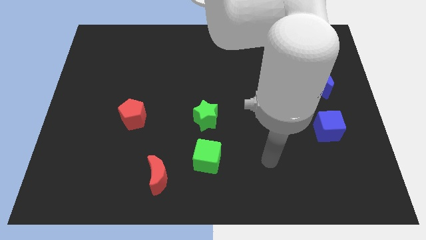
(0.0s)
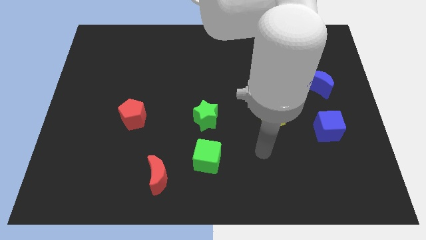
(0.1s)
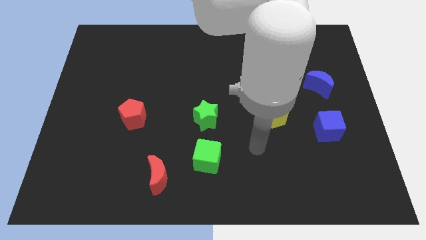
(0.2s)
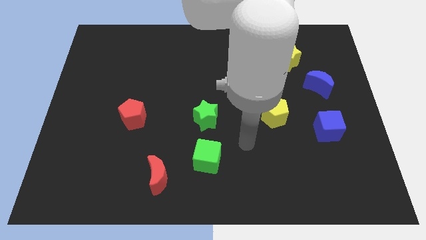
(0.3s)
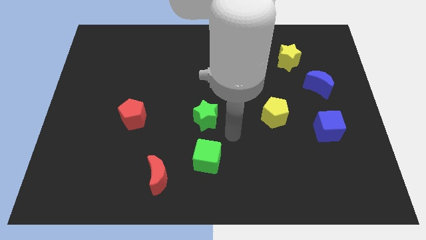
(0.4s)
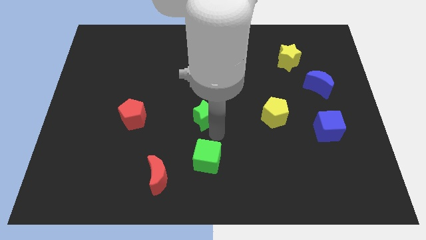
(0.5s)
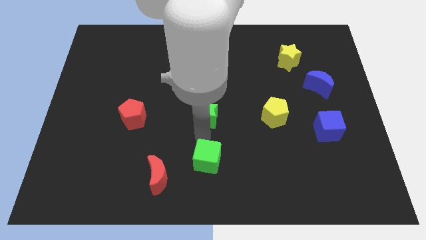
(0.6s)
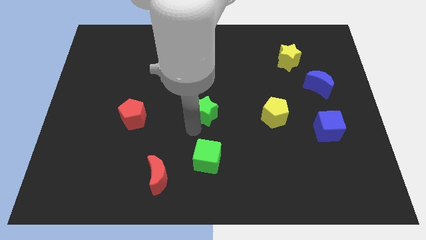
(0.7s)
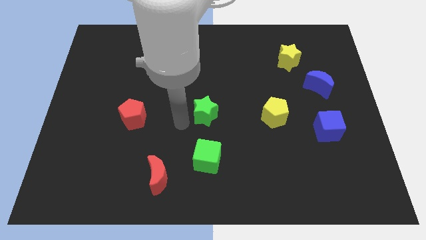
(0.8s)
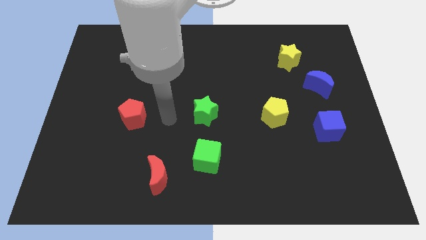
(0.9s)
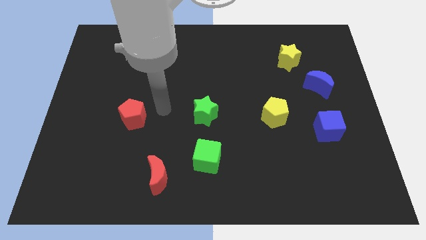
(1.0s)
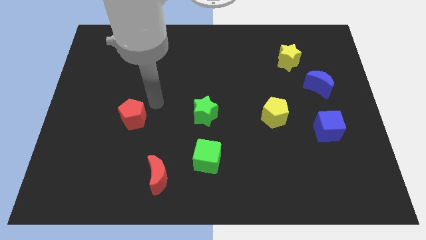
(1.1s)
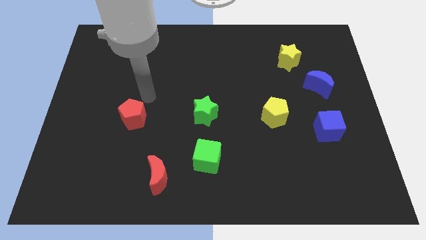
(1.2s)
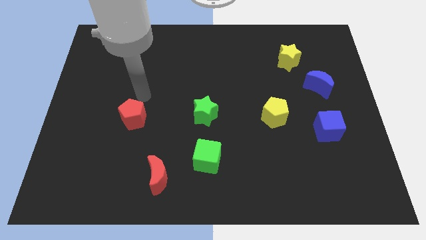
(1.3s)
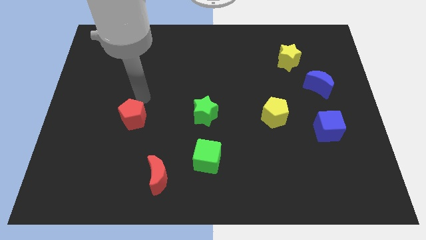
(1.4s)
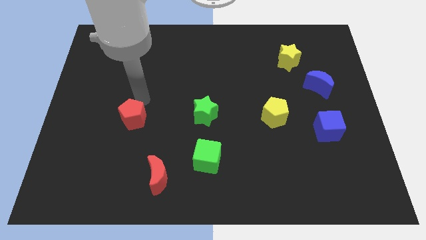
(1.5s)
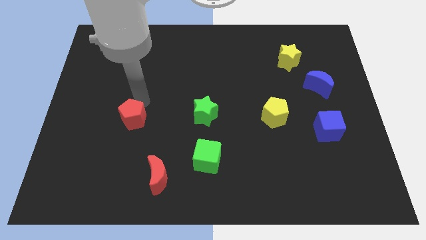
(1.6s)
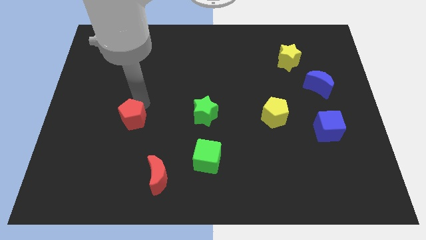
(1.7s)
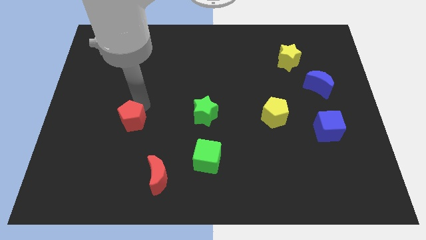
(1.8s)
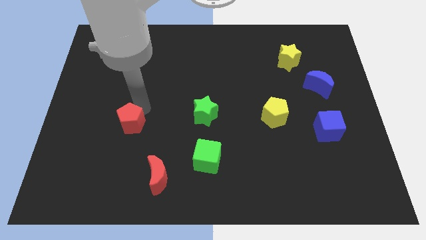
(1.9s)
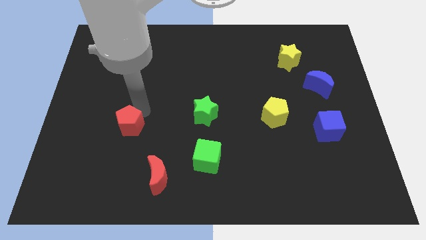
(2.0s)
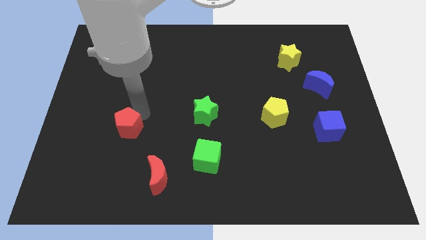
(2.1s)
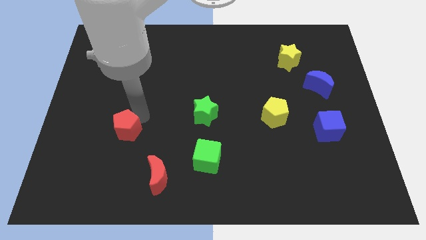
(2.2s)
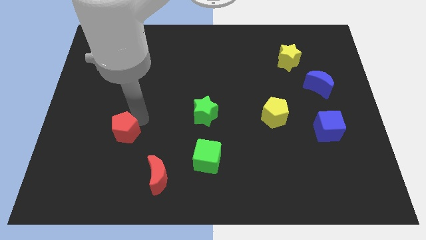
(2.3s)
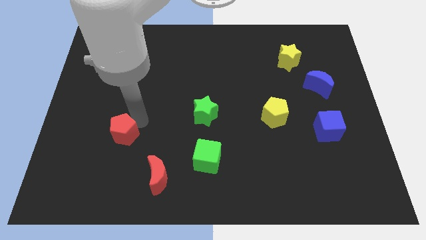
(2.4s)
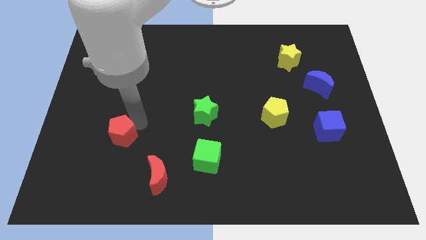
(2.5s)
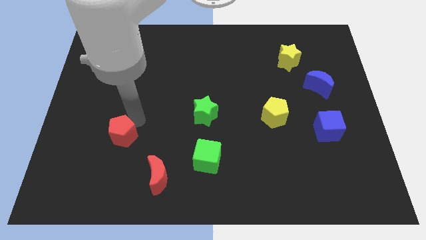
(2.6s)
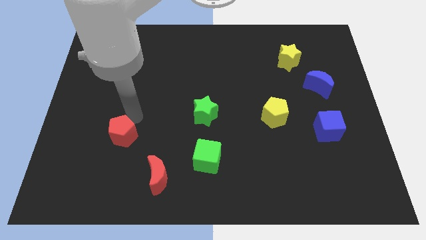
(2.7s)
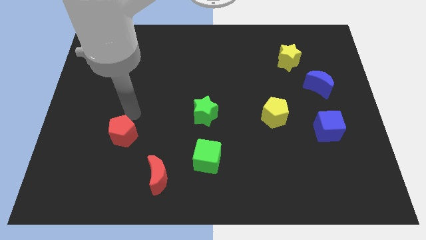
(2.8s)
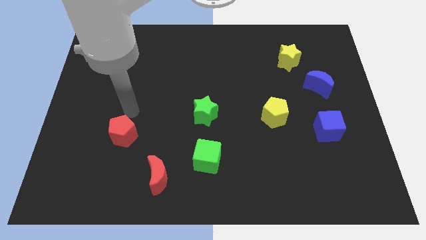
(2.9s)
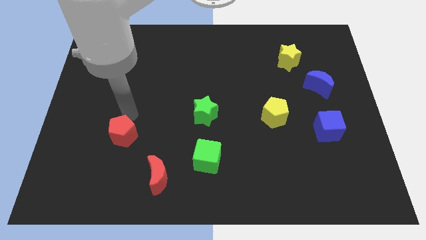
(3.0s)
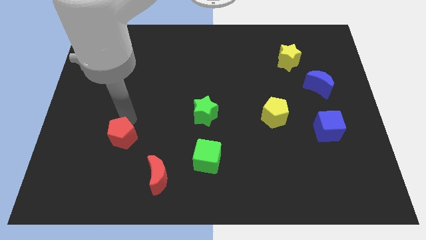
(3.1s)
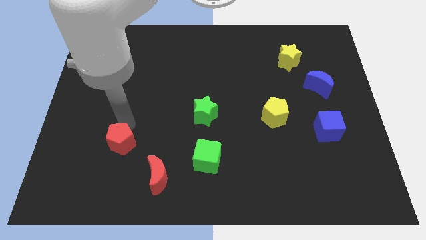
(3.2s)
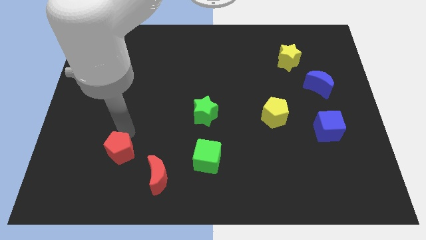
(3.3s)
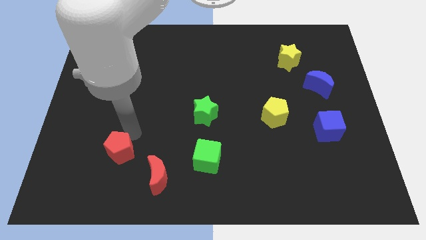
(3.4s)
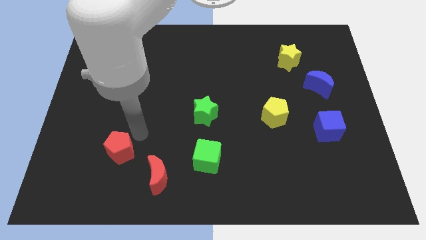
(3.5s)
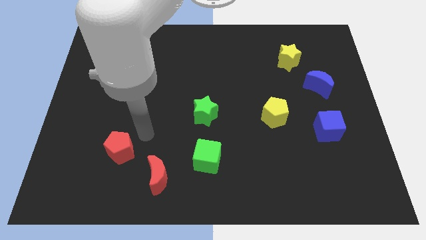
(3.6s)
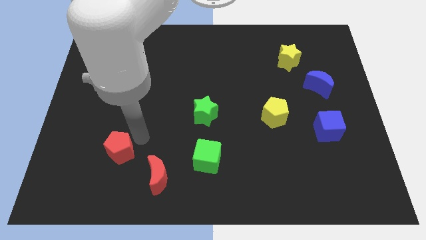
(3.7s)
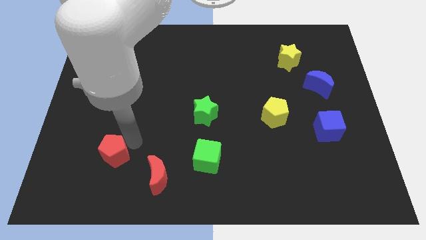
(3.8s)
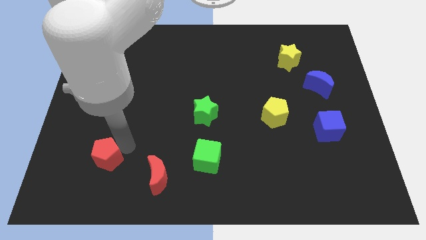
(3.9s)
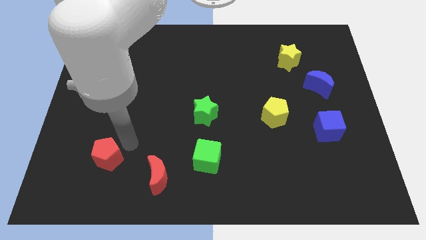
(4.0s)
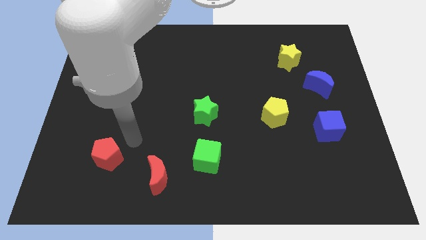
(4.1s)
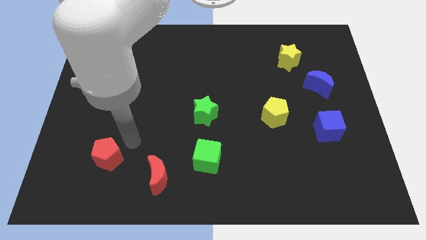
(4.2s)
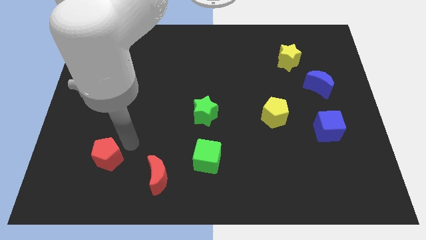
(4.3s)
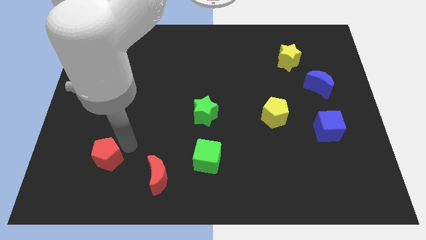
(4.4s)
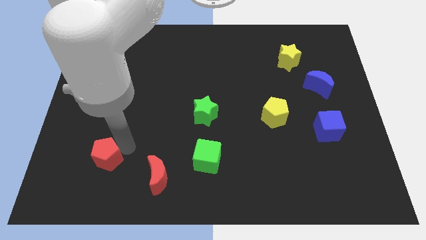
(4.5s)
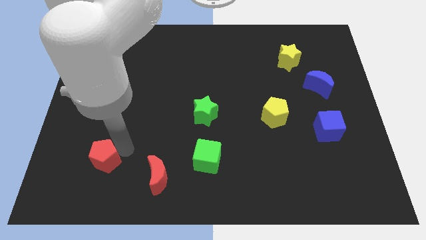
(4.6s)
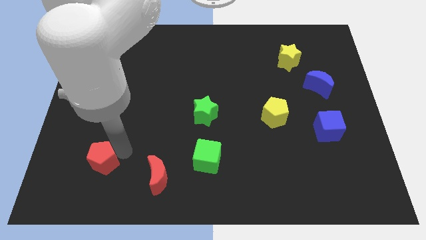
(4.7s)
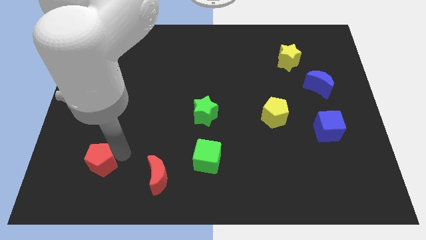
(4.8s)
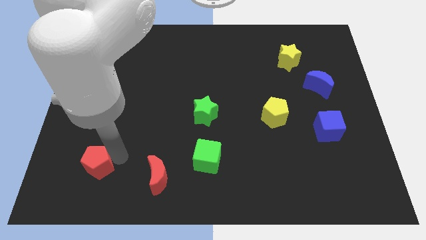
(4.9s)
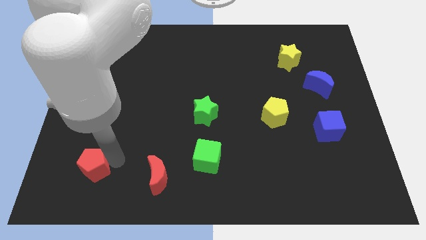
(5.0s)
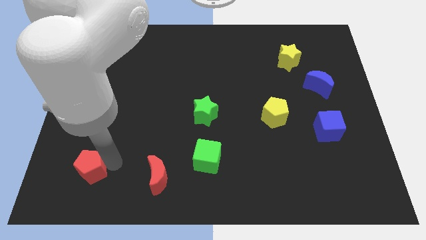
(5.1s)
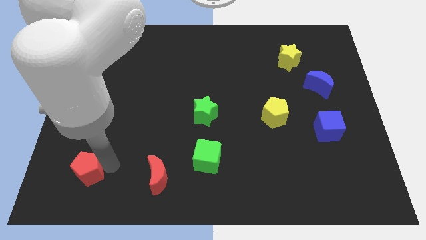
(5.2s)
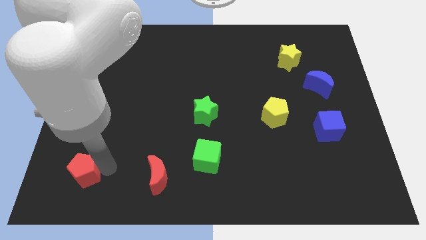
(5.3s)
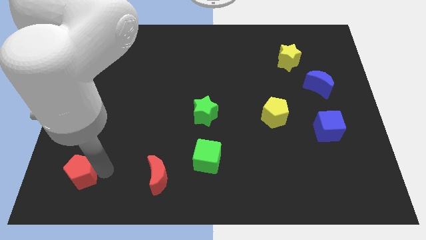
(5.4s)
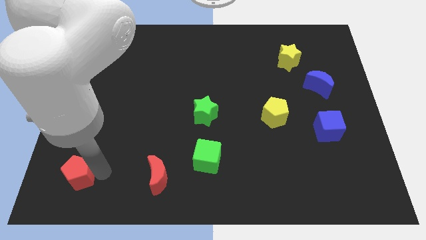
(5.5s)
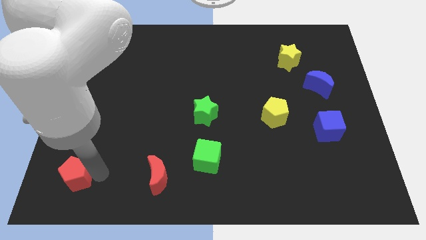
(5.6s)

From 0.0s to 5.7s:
push the red pentagon to the bottom left of the board

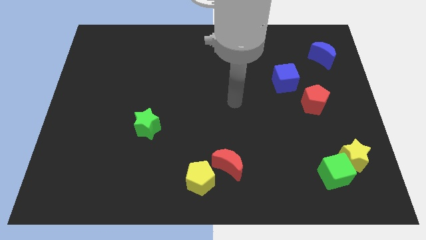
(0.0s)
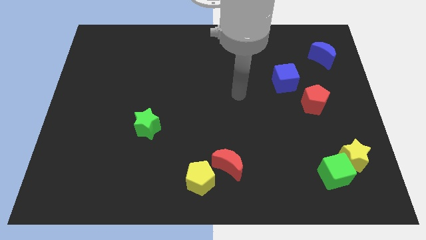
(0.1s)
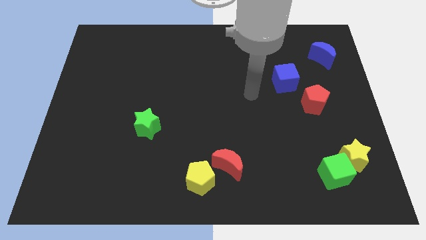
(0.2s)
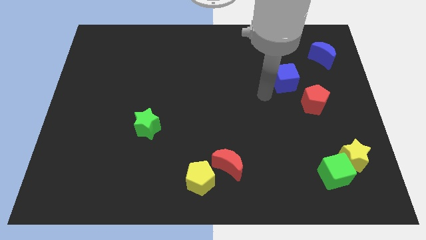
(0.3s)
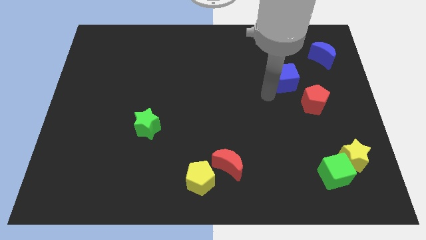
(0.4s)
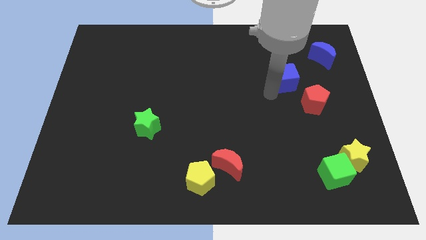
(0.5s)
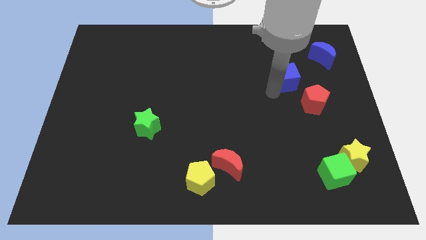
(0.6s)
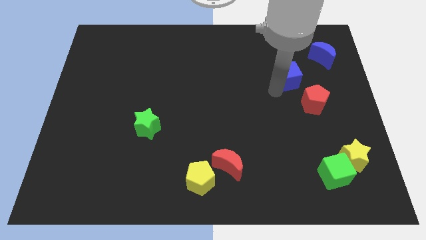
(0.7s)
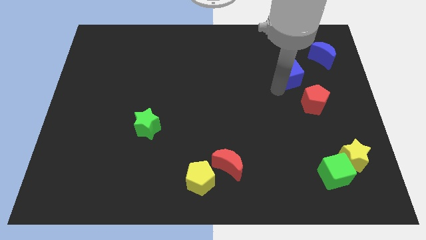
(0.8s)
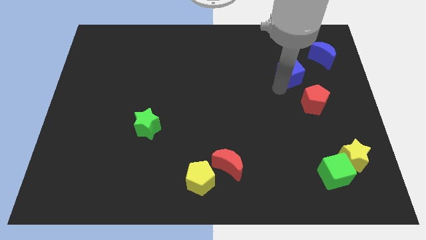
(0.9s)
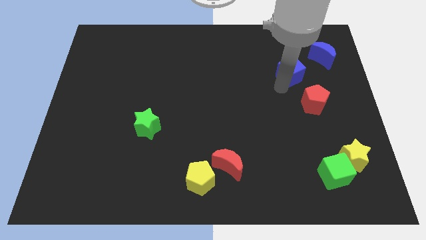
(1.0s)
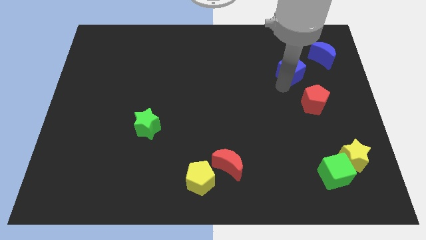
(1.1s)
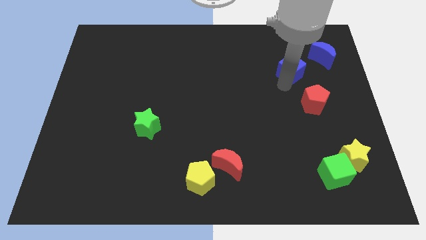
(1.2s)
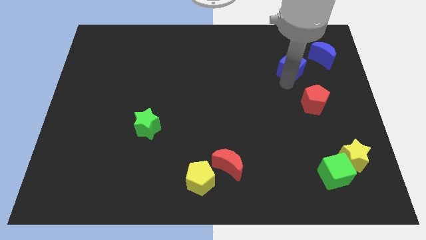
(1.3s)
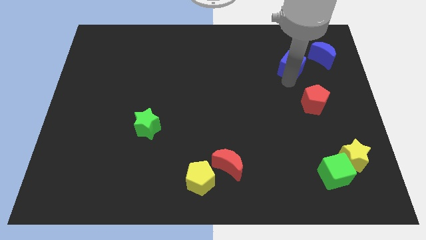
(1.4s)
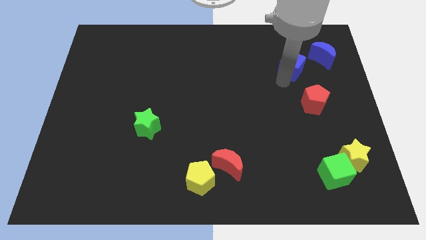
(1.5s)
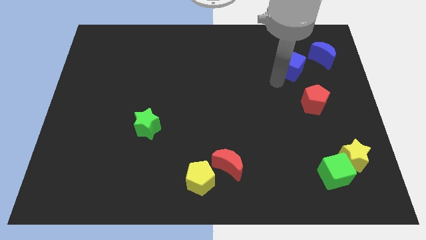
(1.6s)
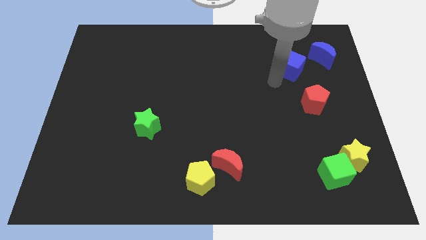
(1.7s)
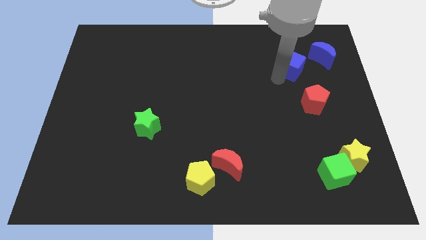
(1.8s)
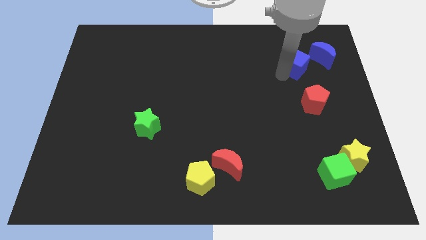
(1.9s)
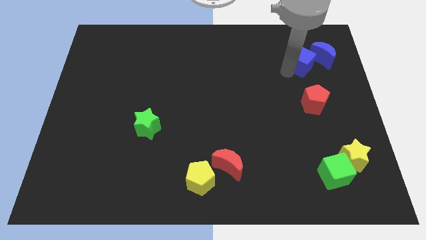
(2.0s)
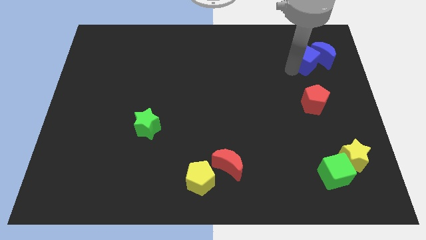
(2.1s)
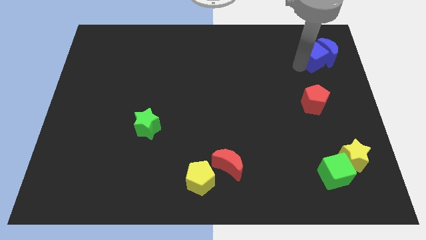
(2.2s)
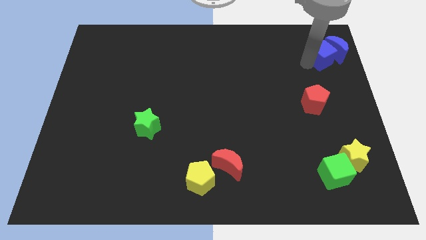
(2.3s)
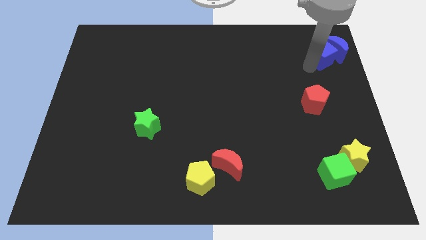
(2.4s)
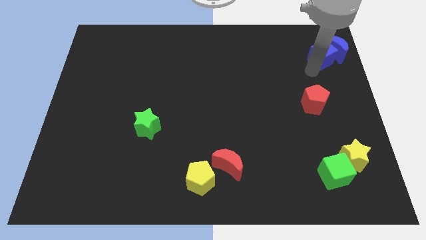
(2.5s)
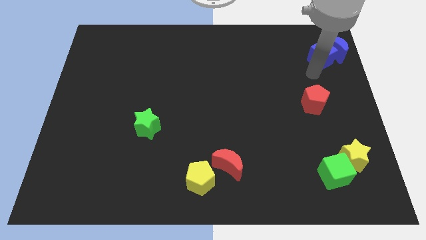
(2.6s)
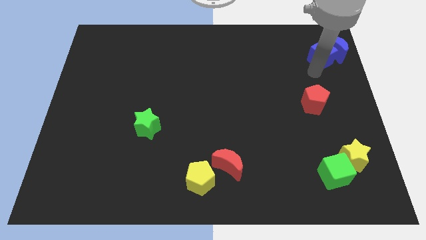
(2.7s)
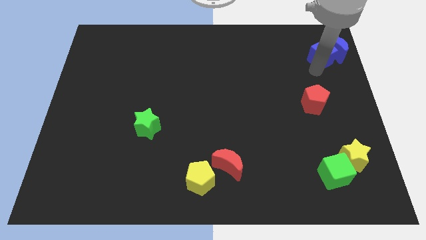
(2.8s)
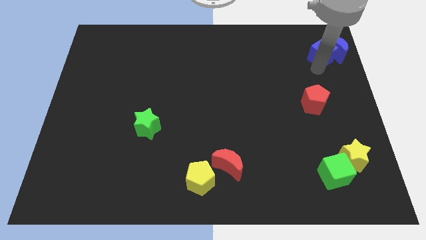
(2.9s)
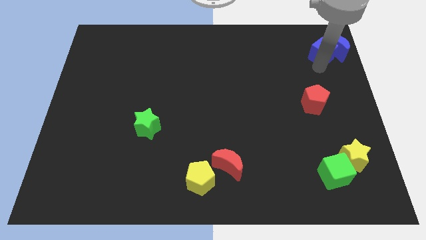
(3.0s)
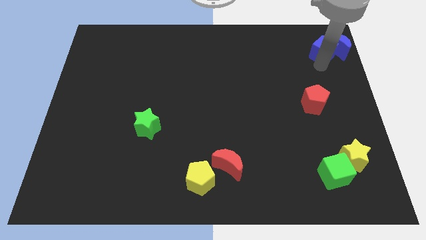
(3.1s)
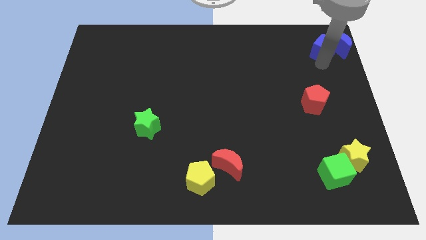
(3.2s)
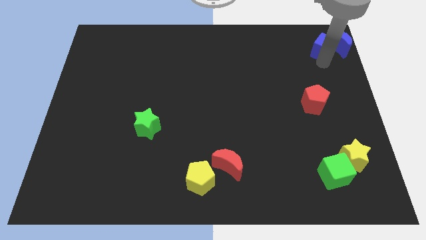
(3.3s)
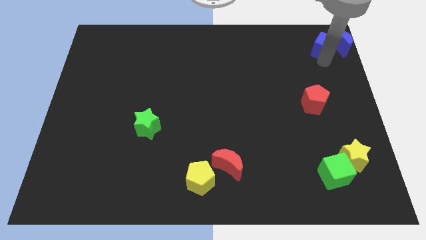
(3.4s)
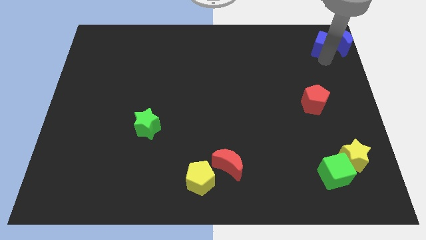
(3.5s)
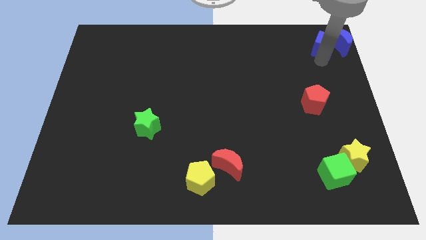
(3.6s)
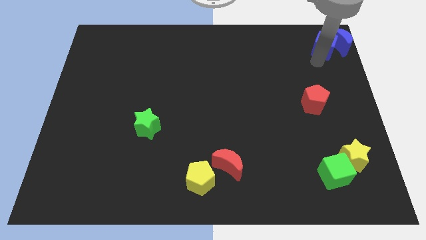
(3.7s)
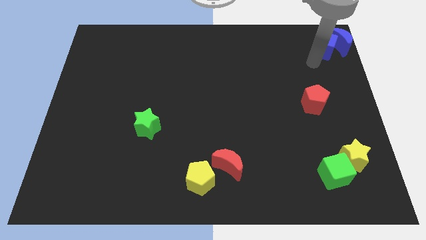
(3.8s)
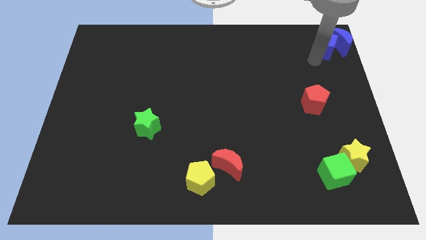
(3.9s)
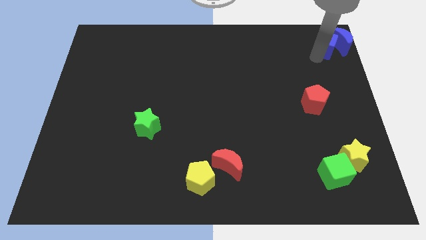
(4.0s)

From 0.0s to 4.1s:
push the blue cube to the top right of the board
